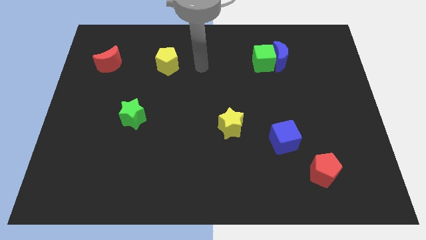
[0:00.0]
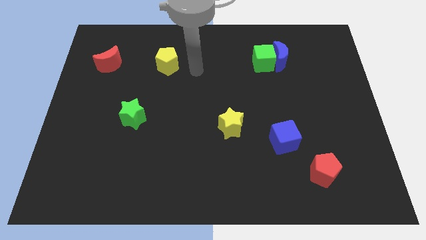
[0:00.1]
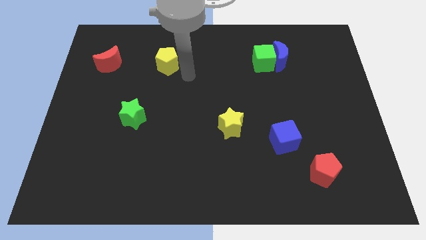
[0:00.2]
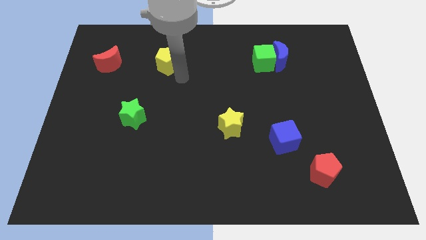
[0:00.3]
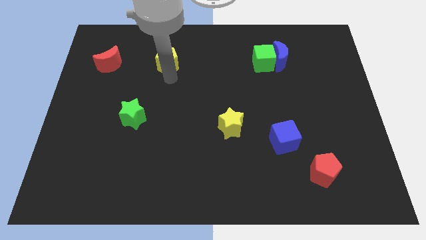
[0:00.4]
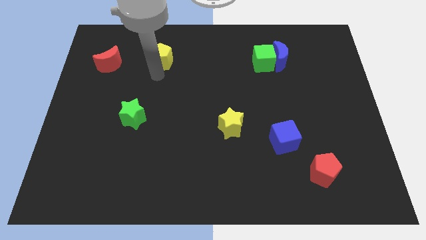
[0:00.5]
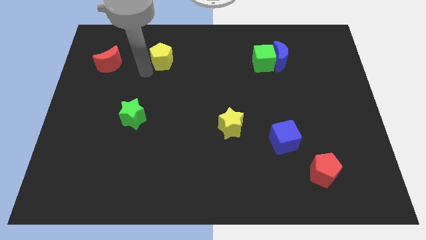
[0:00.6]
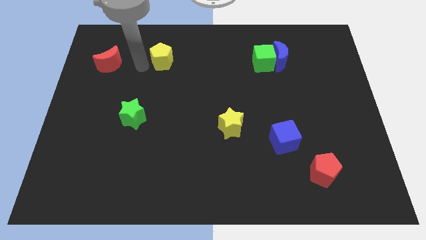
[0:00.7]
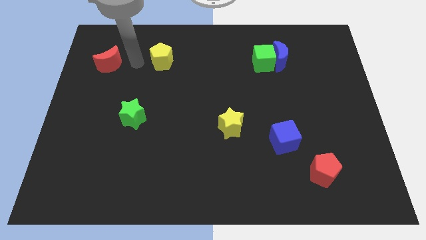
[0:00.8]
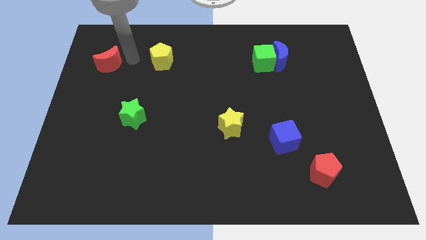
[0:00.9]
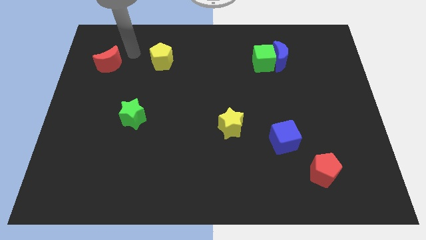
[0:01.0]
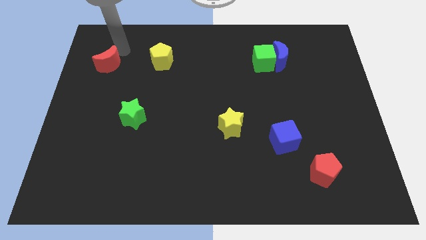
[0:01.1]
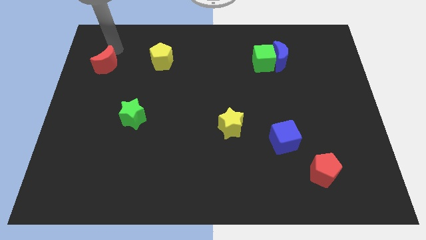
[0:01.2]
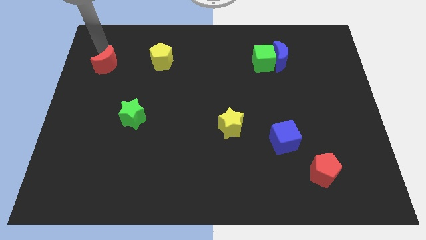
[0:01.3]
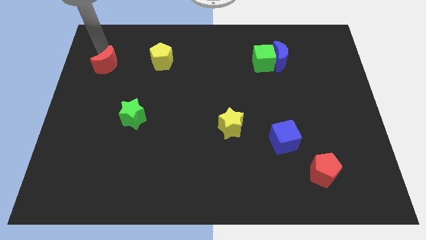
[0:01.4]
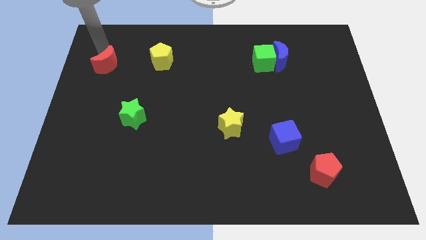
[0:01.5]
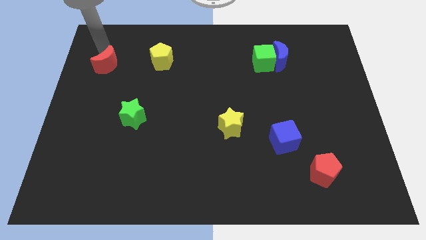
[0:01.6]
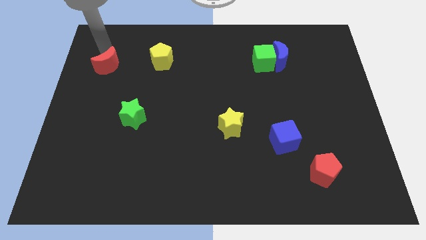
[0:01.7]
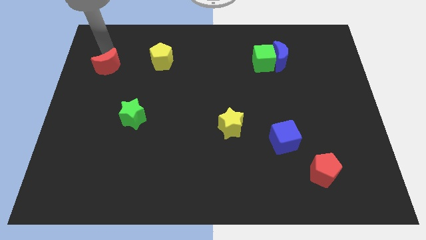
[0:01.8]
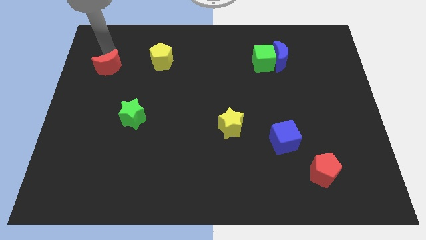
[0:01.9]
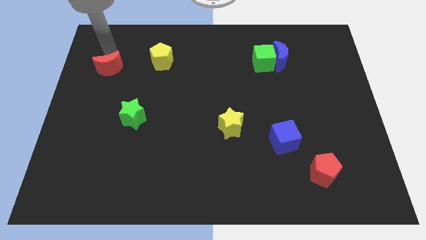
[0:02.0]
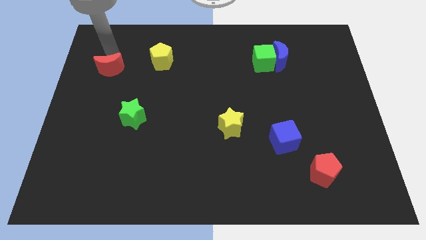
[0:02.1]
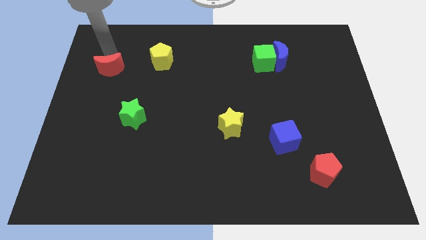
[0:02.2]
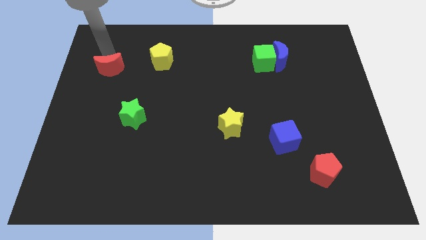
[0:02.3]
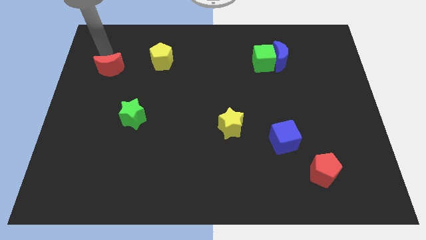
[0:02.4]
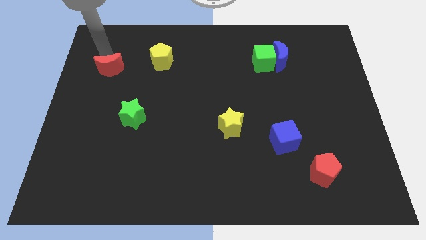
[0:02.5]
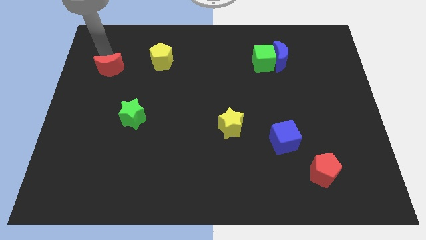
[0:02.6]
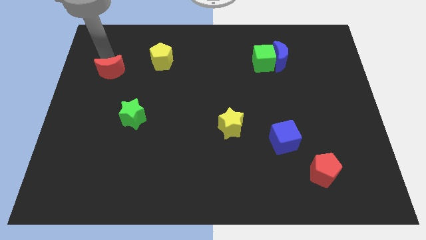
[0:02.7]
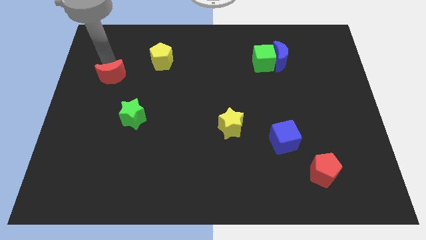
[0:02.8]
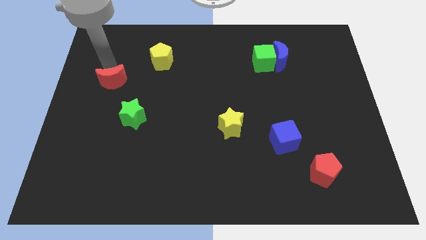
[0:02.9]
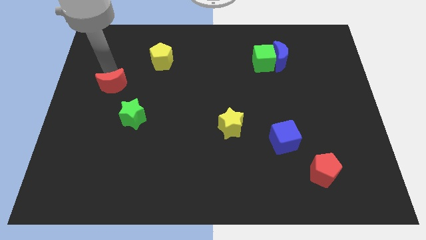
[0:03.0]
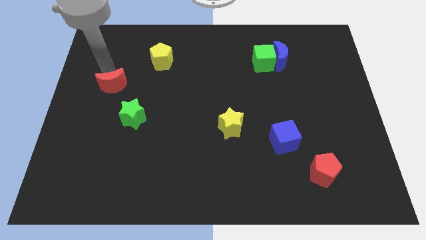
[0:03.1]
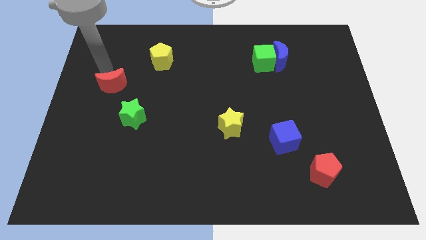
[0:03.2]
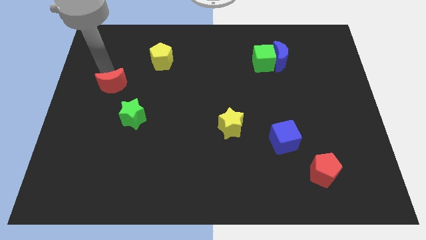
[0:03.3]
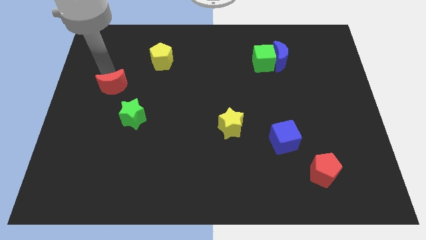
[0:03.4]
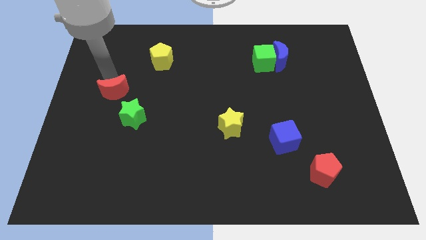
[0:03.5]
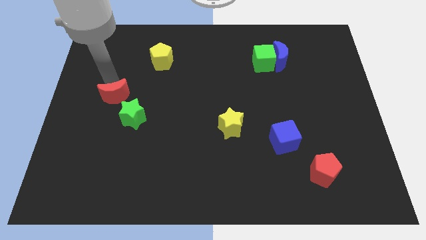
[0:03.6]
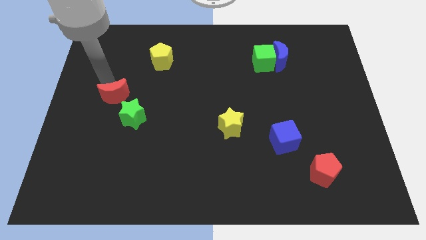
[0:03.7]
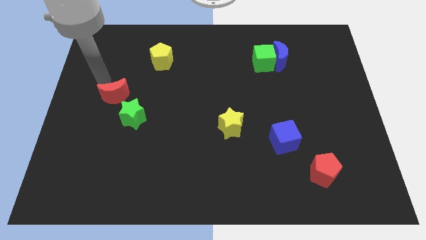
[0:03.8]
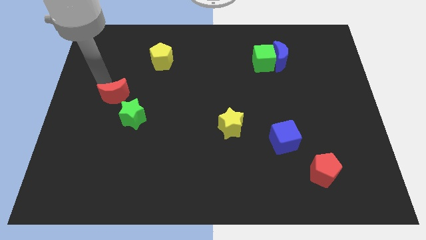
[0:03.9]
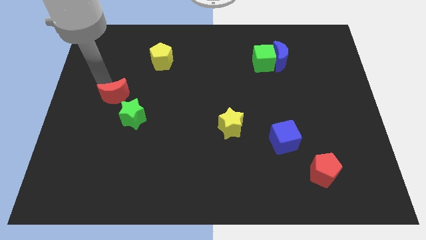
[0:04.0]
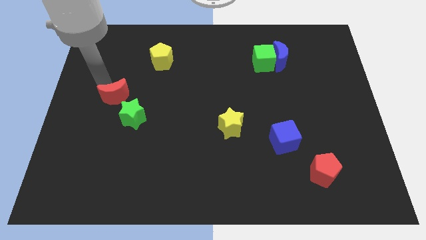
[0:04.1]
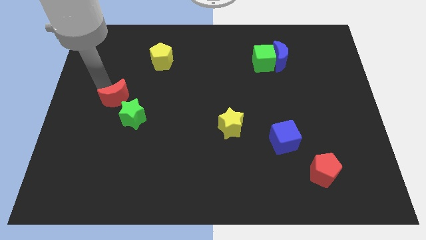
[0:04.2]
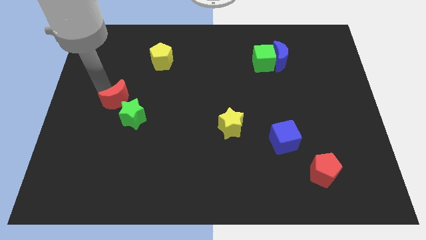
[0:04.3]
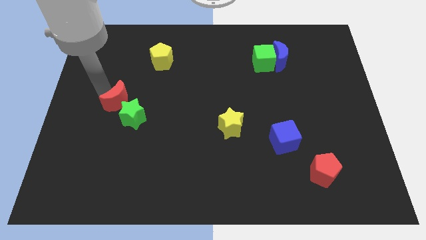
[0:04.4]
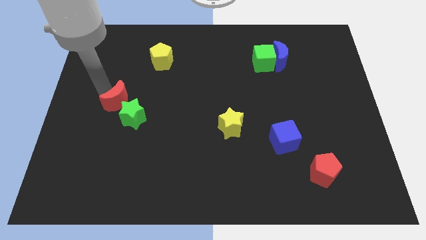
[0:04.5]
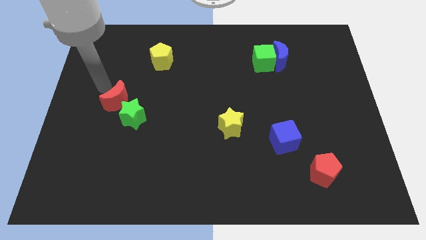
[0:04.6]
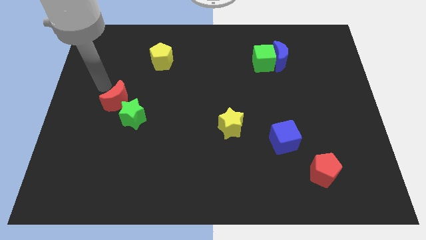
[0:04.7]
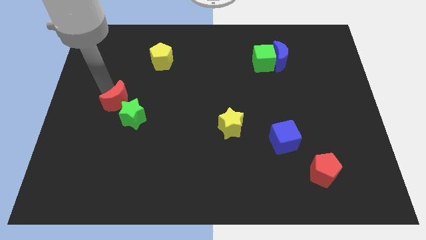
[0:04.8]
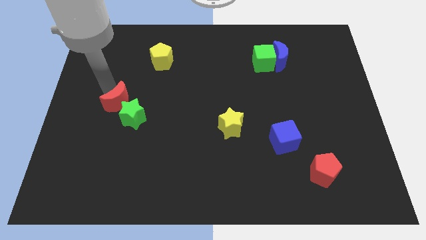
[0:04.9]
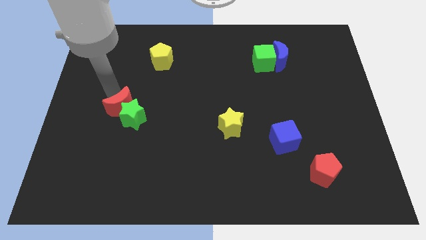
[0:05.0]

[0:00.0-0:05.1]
slide the red moon towards the green star

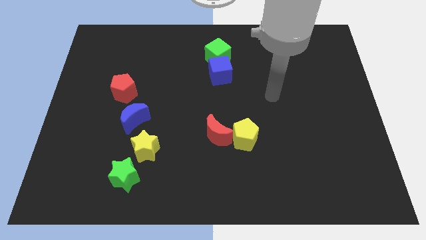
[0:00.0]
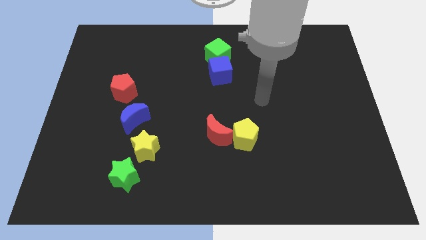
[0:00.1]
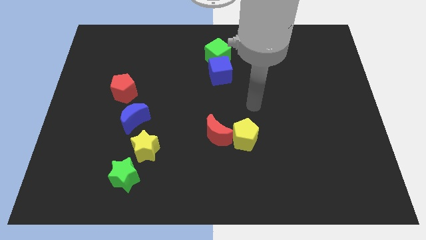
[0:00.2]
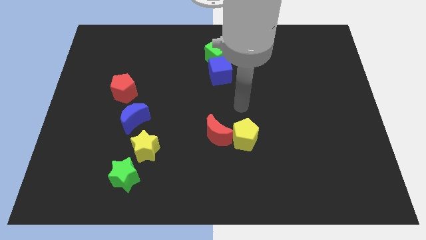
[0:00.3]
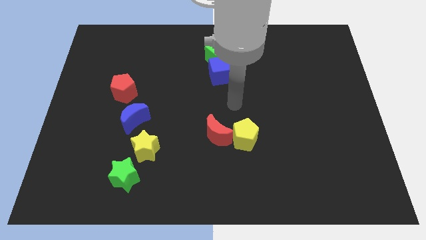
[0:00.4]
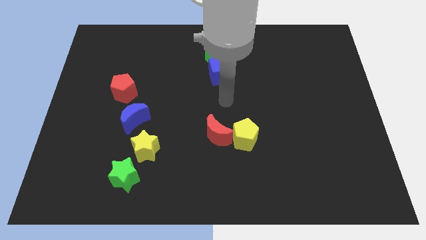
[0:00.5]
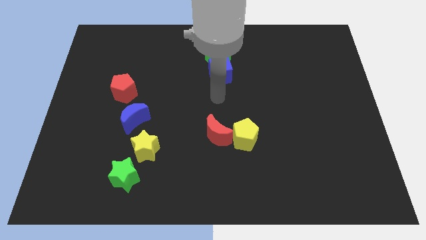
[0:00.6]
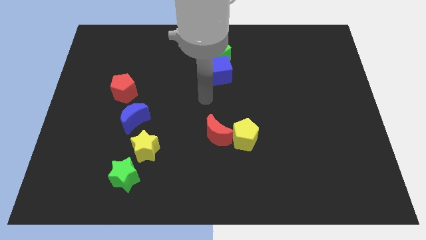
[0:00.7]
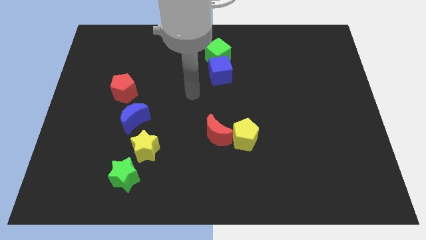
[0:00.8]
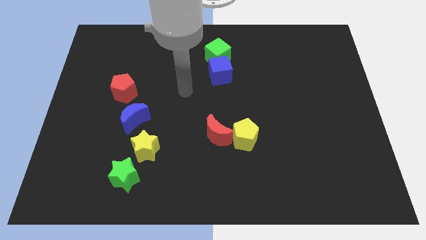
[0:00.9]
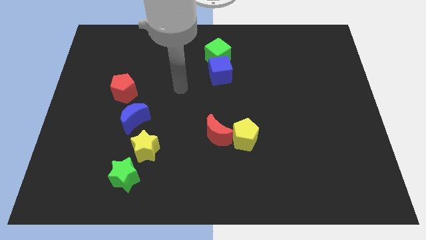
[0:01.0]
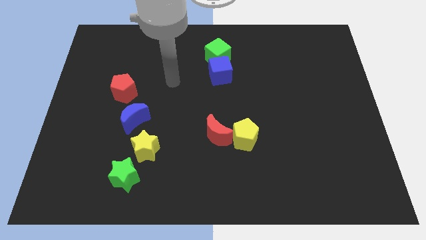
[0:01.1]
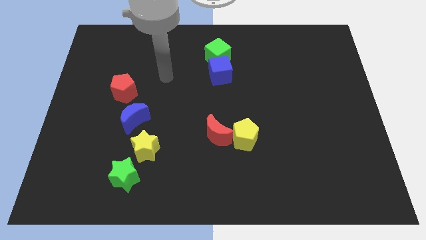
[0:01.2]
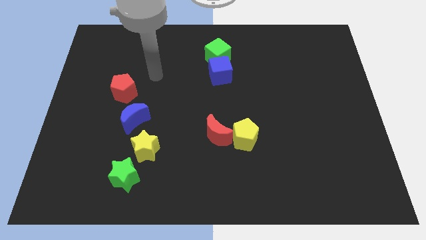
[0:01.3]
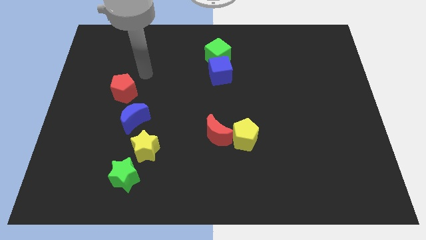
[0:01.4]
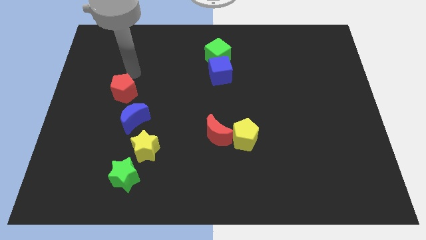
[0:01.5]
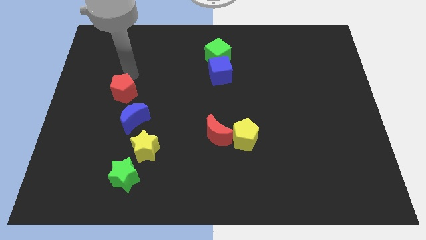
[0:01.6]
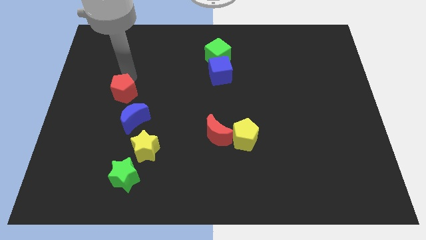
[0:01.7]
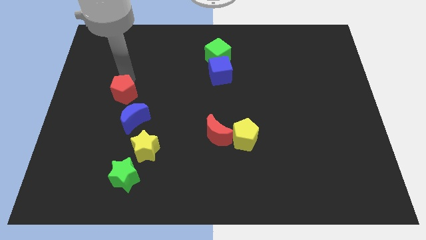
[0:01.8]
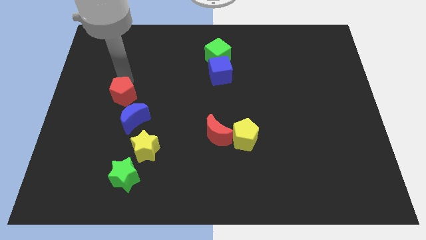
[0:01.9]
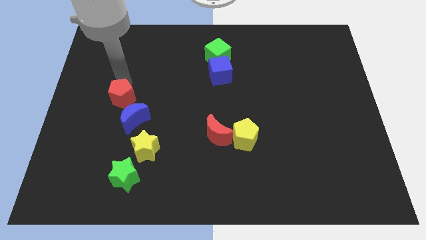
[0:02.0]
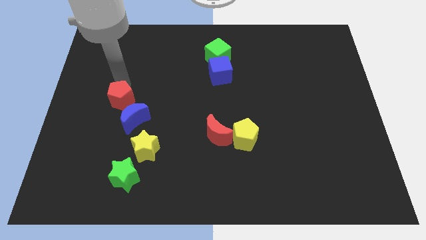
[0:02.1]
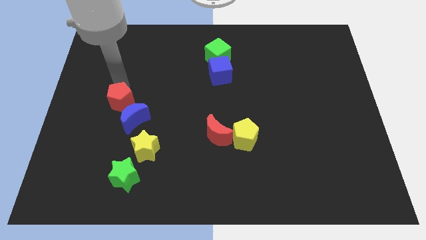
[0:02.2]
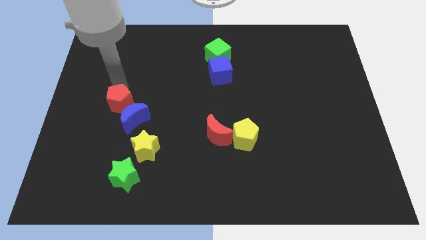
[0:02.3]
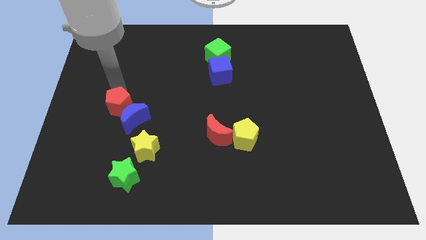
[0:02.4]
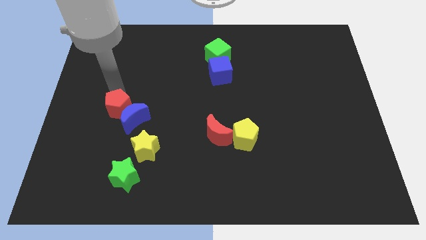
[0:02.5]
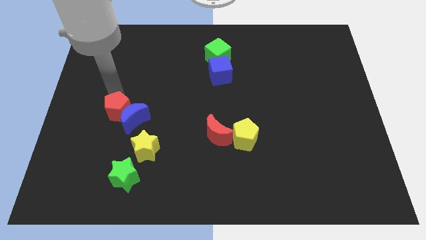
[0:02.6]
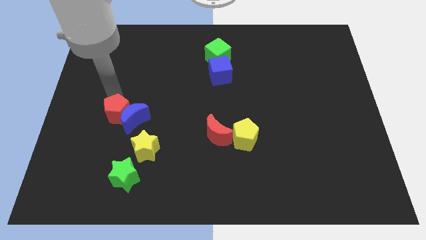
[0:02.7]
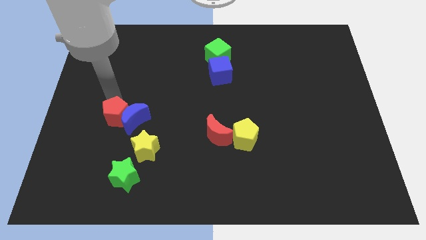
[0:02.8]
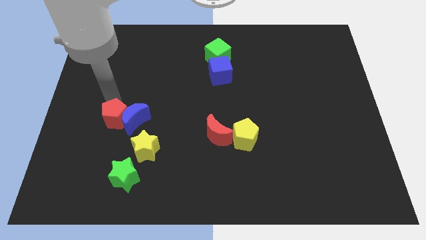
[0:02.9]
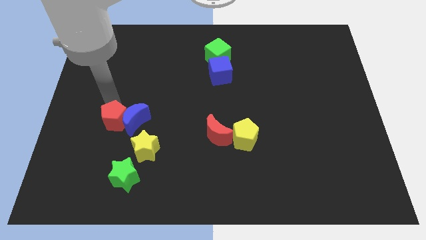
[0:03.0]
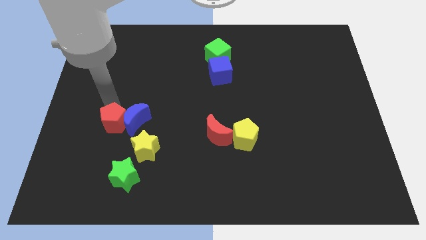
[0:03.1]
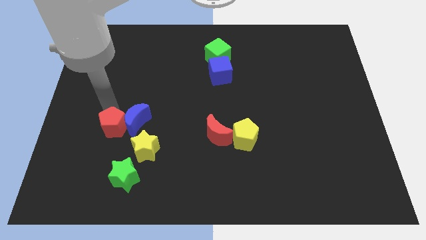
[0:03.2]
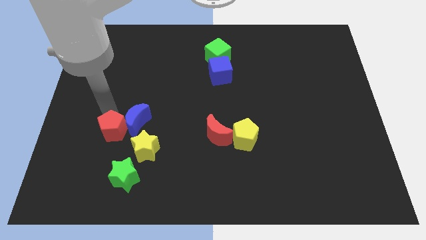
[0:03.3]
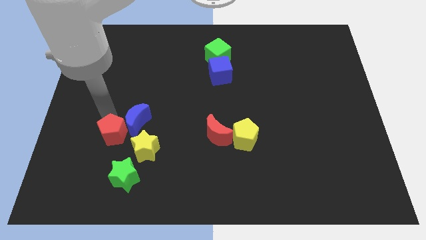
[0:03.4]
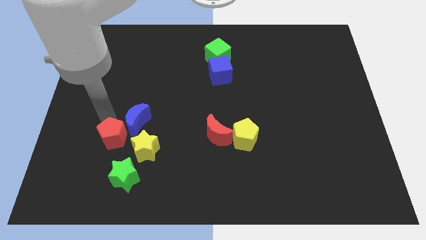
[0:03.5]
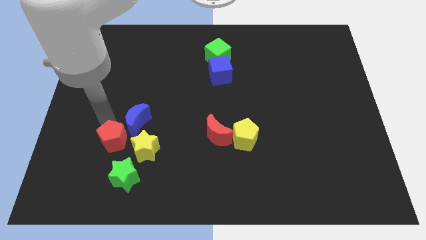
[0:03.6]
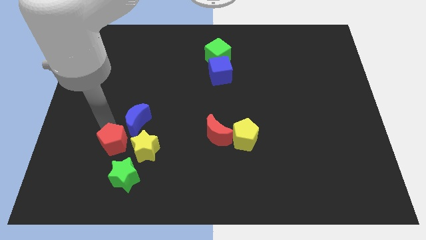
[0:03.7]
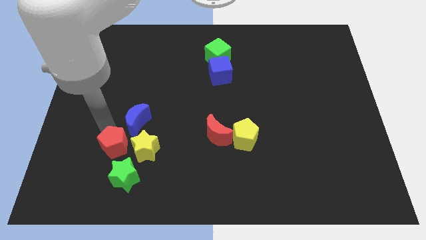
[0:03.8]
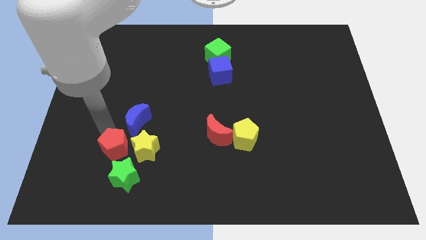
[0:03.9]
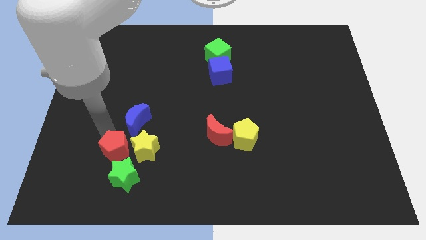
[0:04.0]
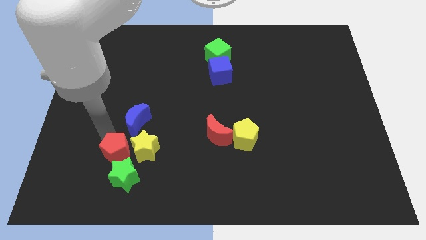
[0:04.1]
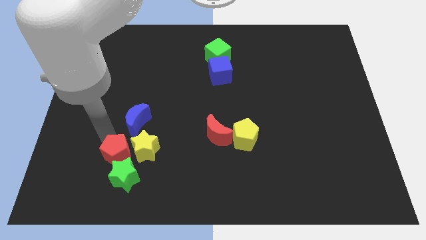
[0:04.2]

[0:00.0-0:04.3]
push the red pentagon close to the green star
